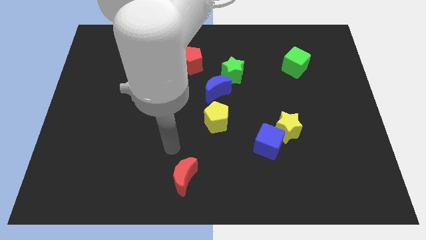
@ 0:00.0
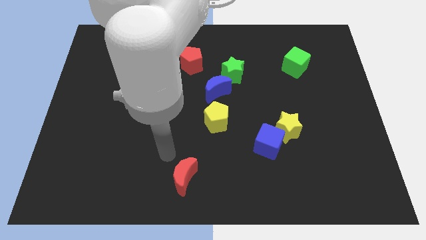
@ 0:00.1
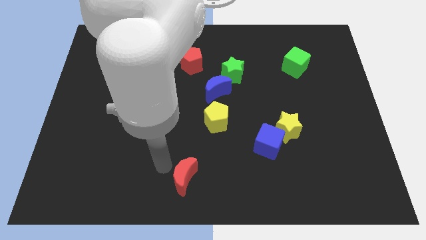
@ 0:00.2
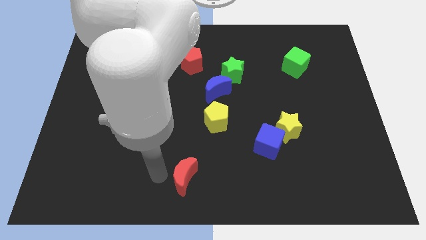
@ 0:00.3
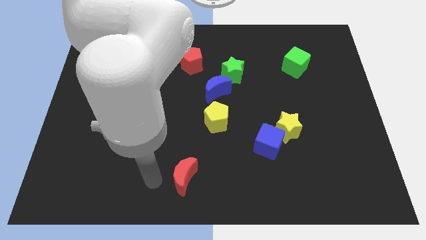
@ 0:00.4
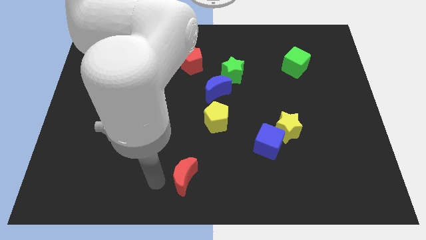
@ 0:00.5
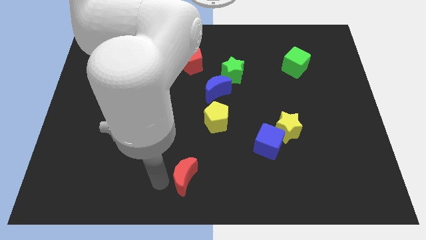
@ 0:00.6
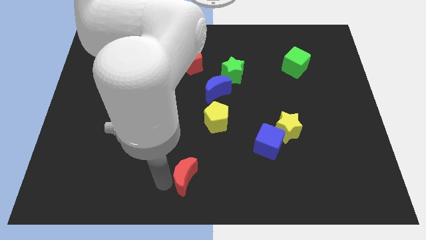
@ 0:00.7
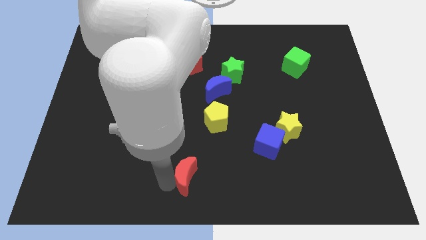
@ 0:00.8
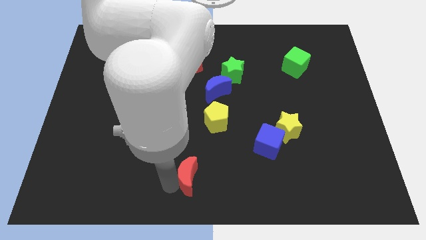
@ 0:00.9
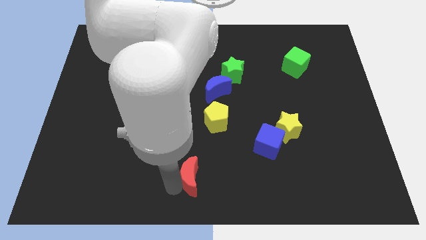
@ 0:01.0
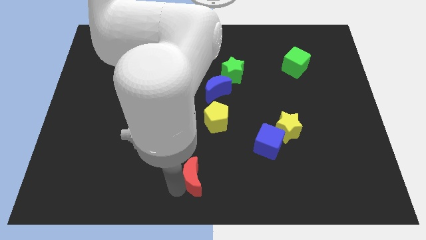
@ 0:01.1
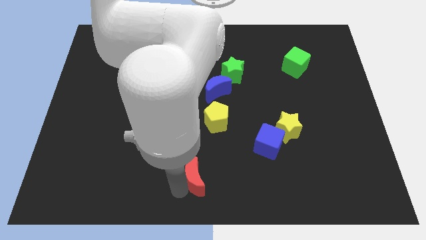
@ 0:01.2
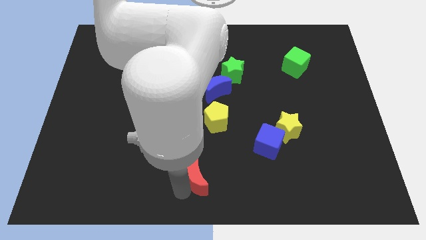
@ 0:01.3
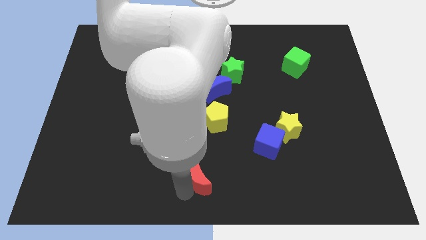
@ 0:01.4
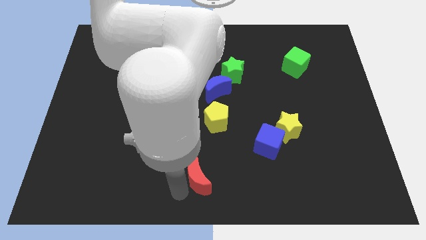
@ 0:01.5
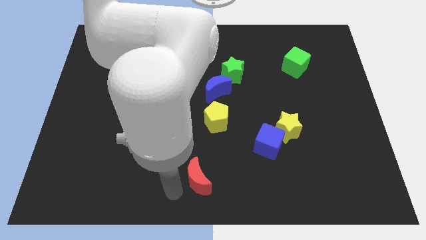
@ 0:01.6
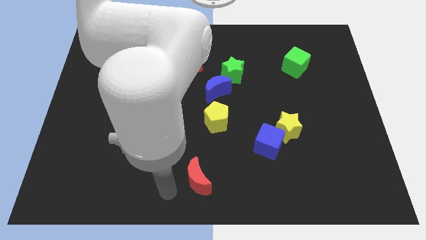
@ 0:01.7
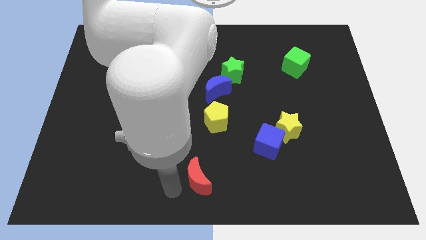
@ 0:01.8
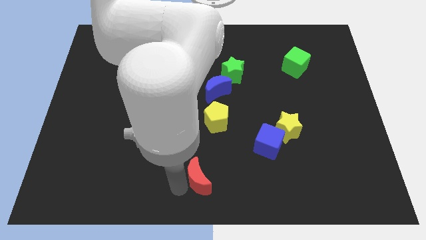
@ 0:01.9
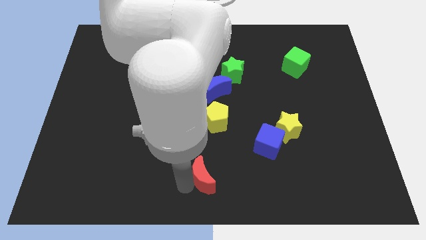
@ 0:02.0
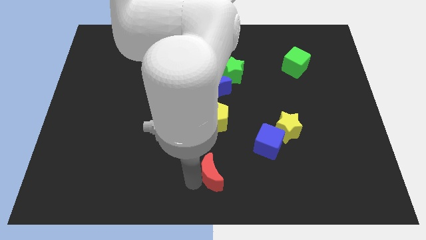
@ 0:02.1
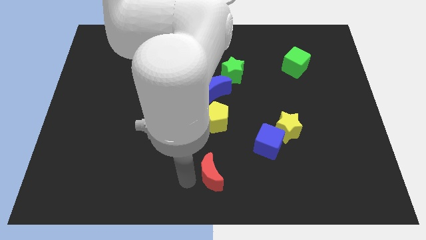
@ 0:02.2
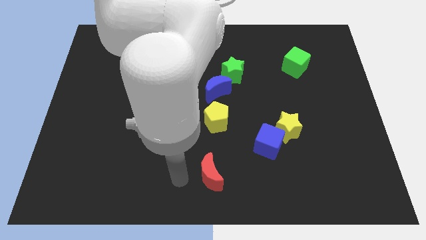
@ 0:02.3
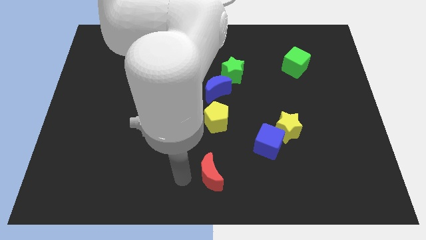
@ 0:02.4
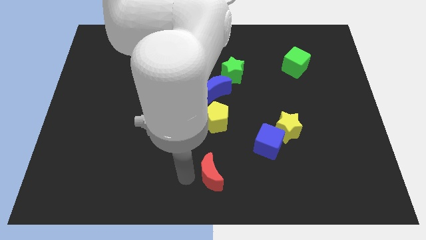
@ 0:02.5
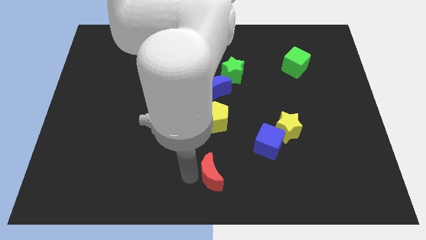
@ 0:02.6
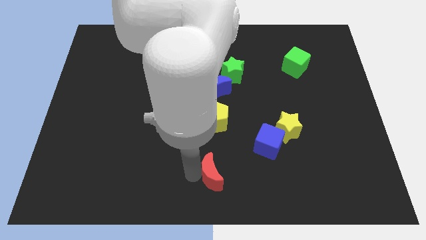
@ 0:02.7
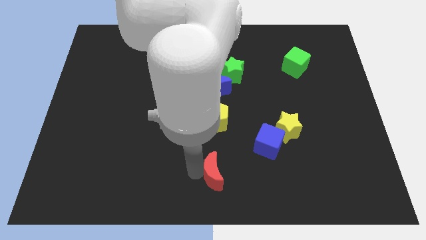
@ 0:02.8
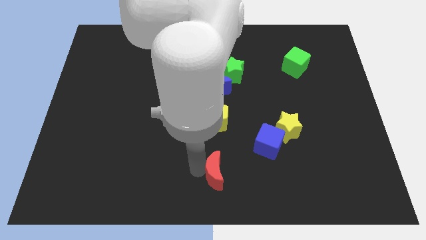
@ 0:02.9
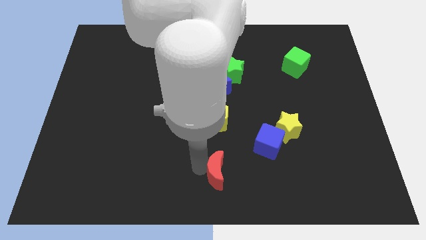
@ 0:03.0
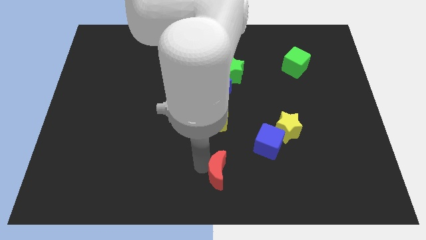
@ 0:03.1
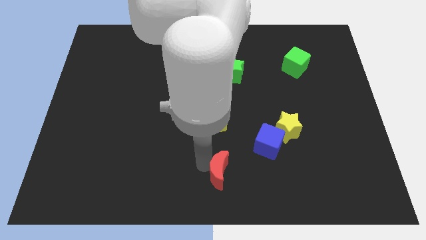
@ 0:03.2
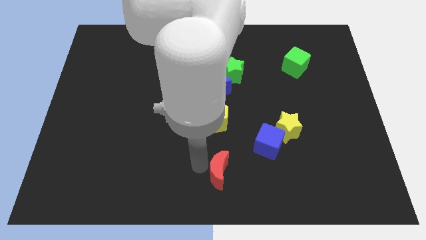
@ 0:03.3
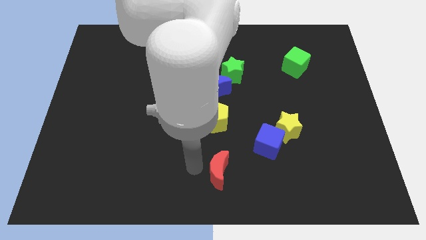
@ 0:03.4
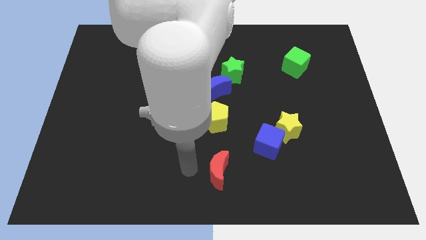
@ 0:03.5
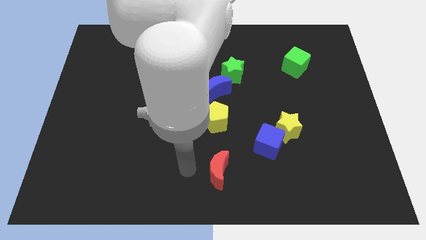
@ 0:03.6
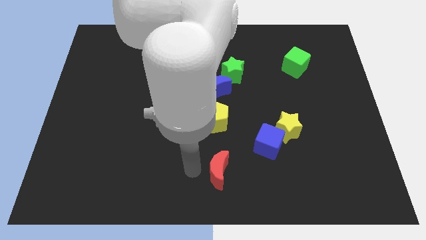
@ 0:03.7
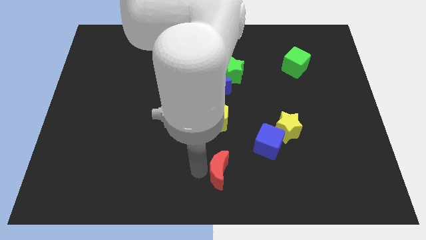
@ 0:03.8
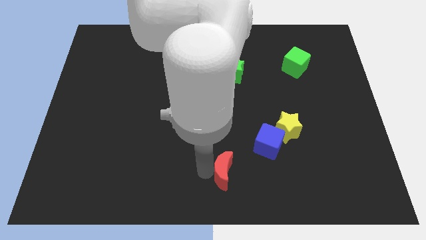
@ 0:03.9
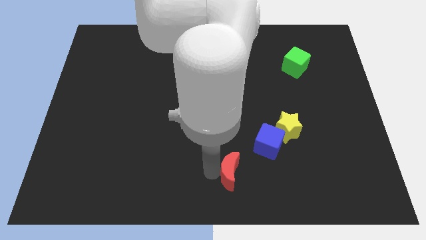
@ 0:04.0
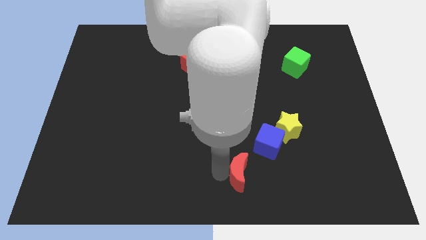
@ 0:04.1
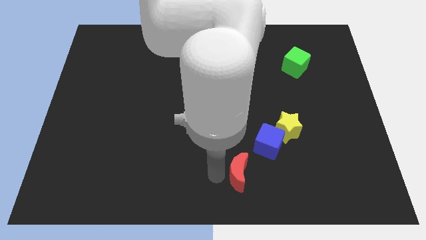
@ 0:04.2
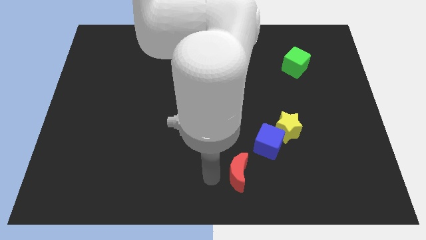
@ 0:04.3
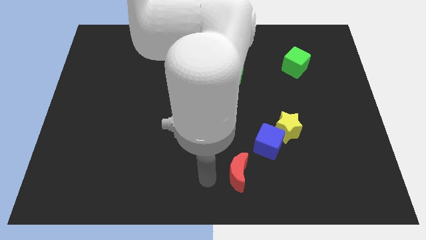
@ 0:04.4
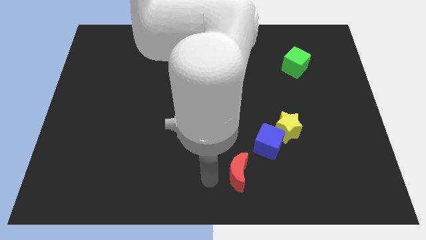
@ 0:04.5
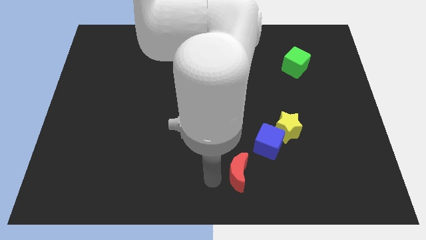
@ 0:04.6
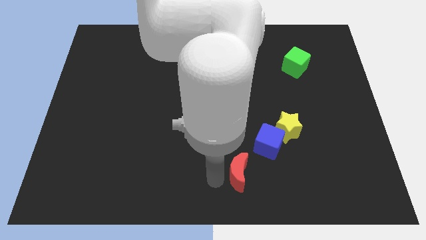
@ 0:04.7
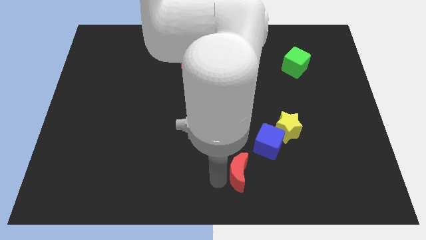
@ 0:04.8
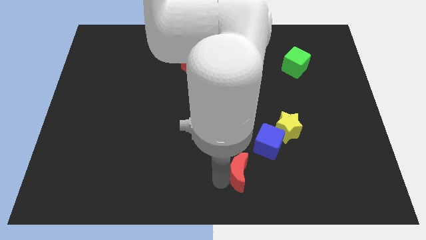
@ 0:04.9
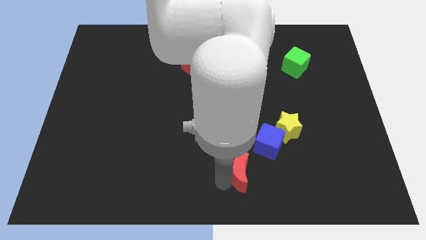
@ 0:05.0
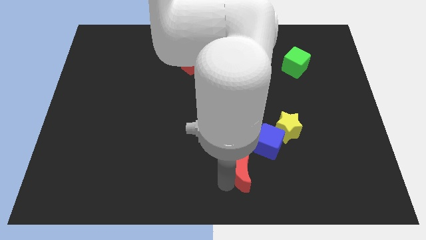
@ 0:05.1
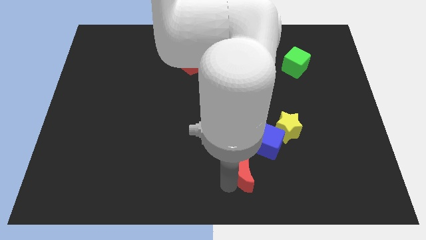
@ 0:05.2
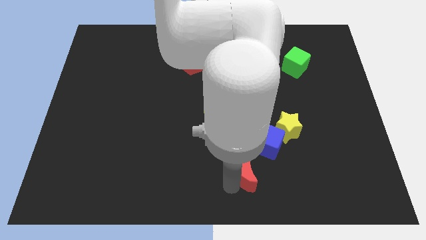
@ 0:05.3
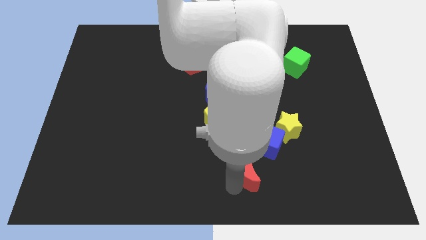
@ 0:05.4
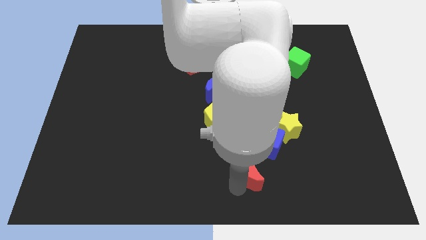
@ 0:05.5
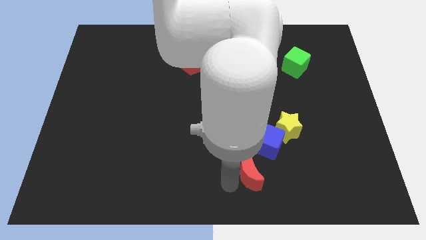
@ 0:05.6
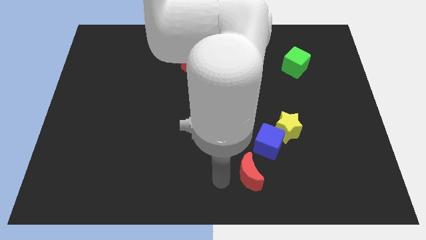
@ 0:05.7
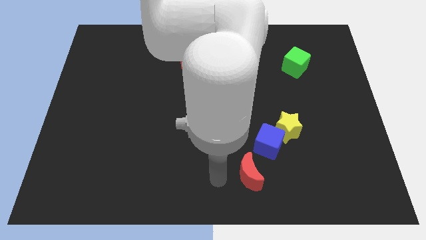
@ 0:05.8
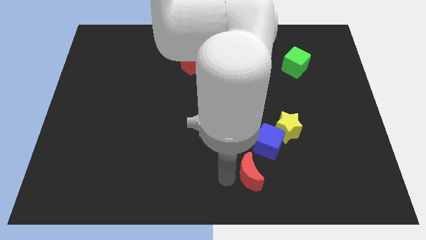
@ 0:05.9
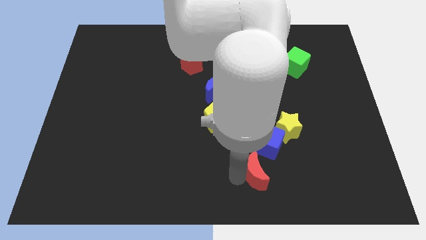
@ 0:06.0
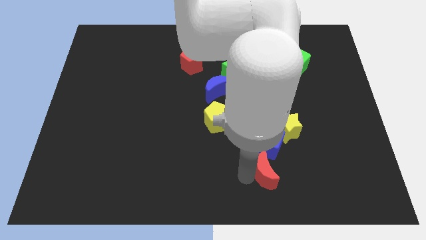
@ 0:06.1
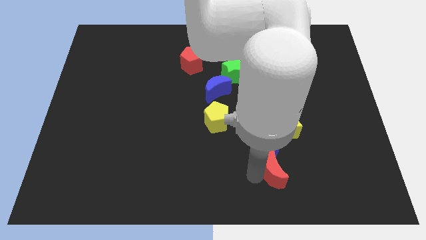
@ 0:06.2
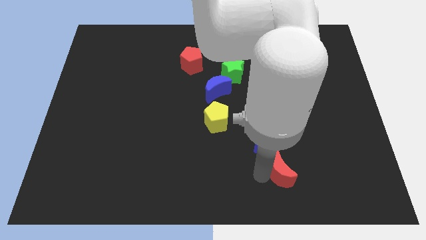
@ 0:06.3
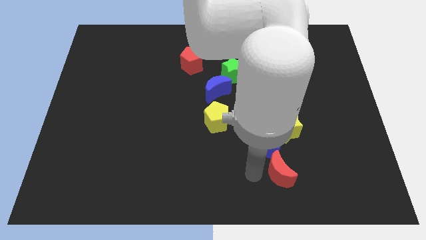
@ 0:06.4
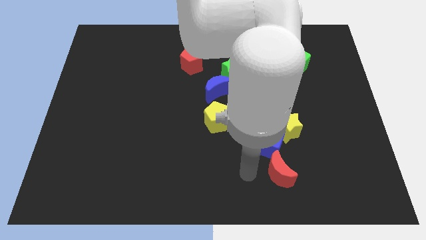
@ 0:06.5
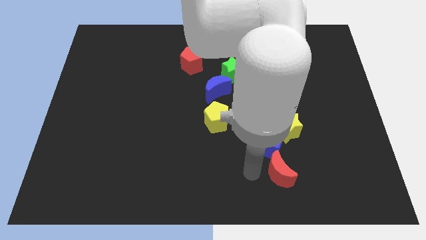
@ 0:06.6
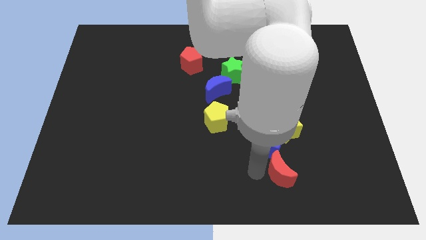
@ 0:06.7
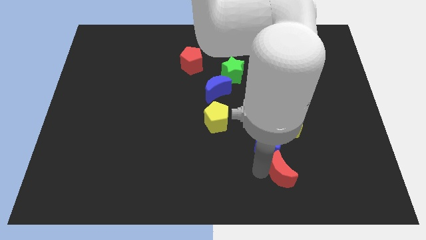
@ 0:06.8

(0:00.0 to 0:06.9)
slide the red moon right

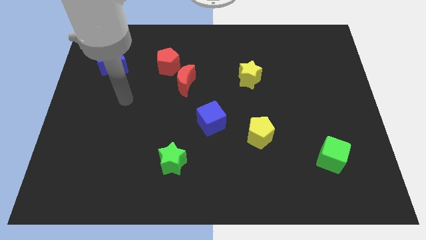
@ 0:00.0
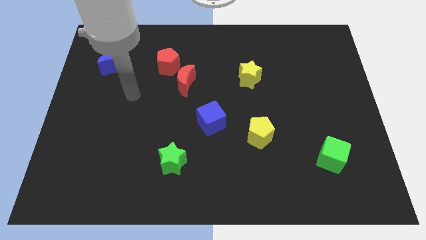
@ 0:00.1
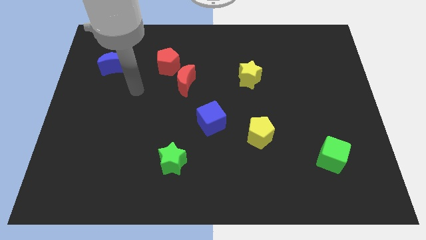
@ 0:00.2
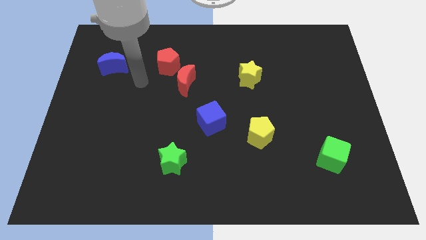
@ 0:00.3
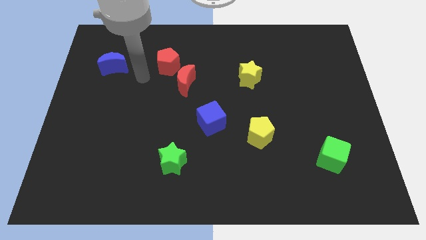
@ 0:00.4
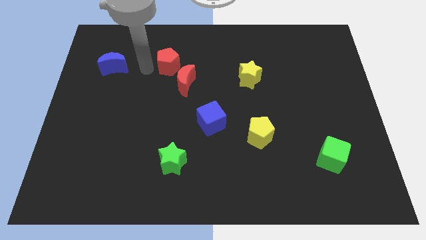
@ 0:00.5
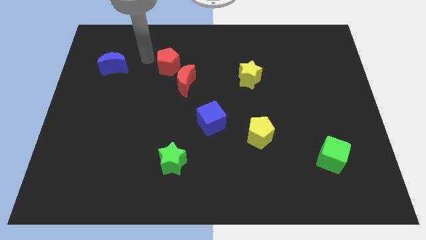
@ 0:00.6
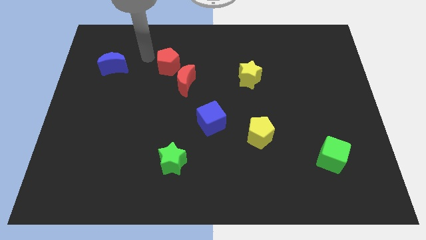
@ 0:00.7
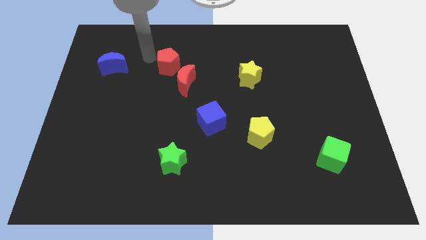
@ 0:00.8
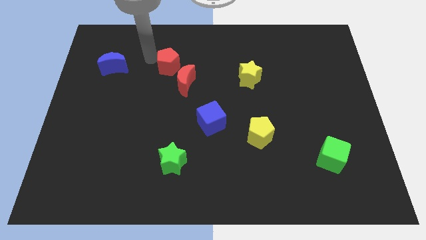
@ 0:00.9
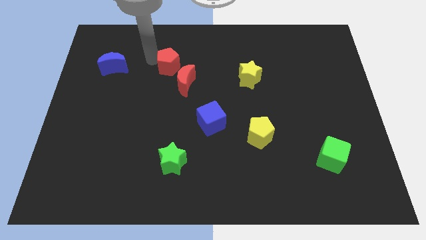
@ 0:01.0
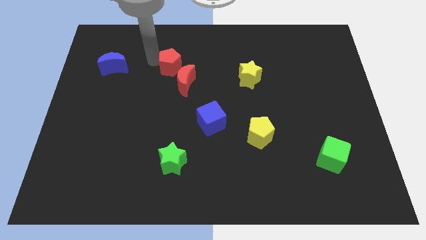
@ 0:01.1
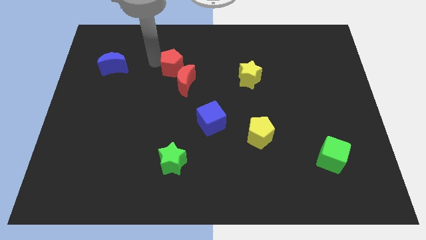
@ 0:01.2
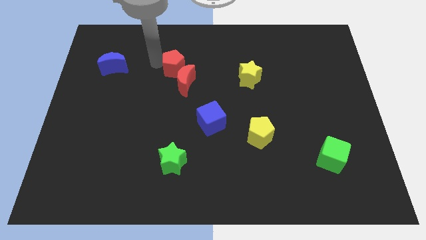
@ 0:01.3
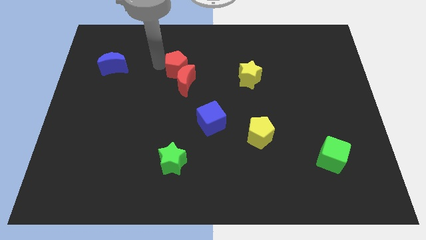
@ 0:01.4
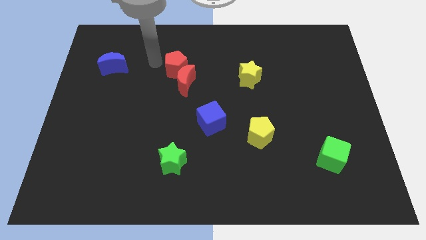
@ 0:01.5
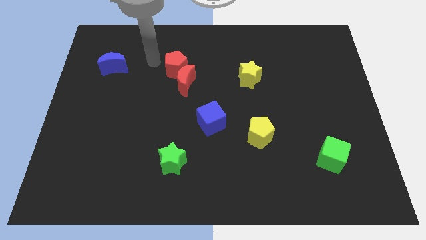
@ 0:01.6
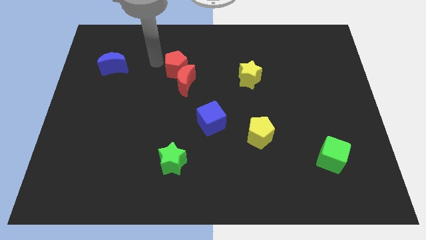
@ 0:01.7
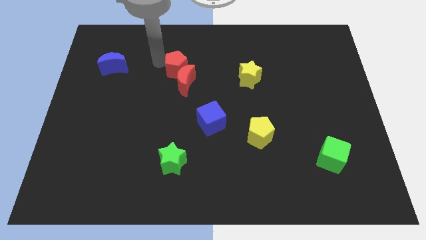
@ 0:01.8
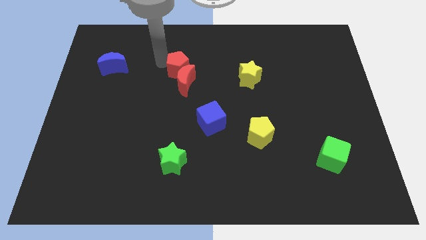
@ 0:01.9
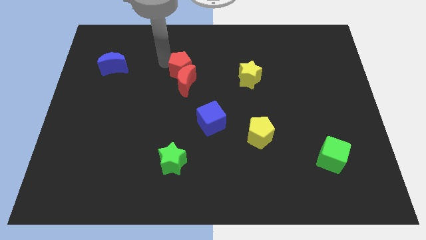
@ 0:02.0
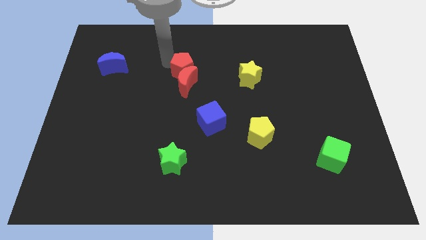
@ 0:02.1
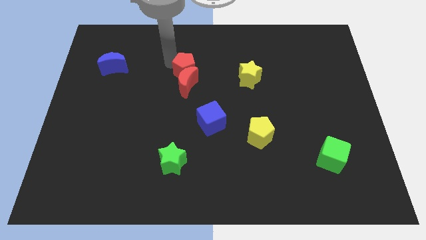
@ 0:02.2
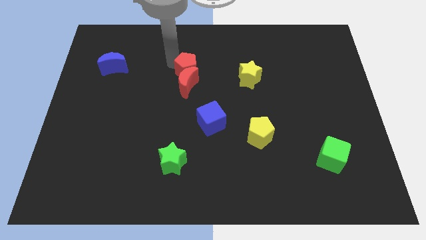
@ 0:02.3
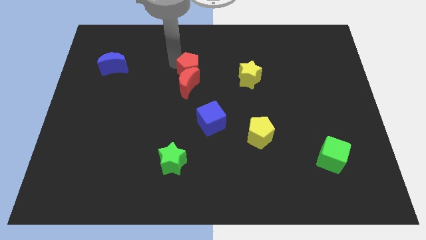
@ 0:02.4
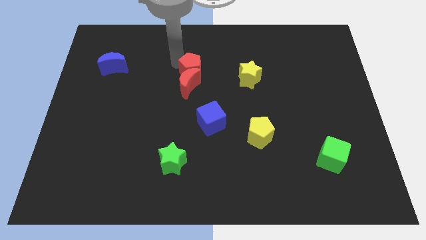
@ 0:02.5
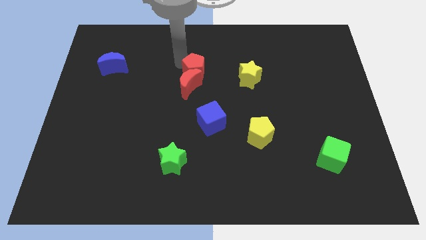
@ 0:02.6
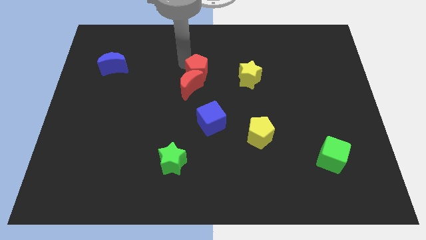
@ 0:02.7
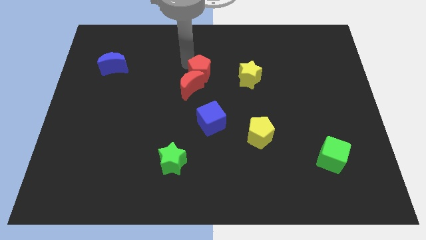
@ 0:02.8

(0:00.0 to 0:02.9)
move the red pentagon a bit down and then to the right
